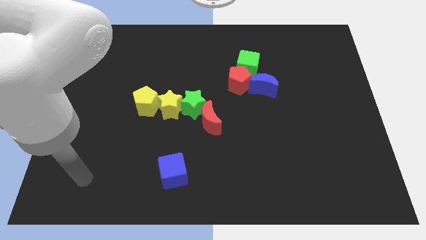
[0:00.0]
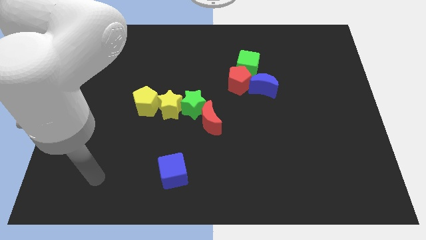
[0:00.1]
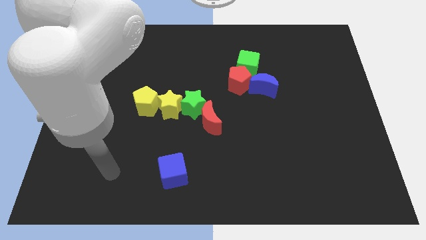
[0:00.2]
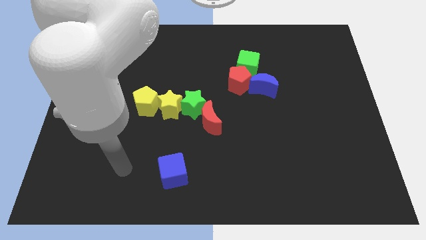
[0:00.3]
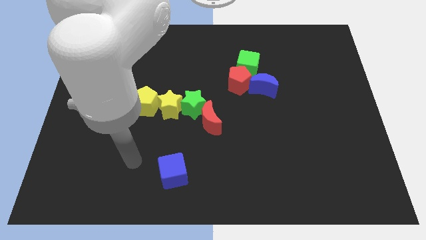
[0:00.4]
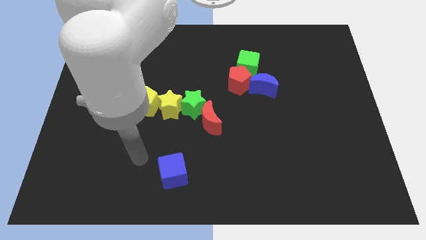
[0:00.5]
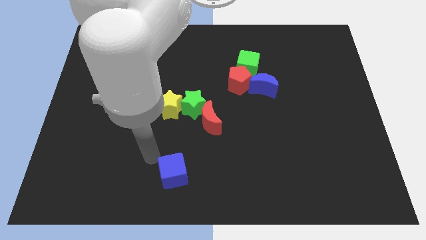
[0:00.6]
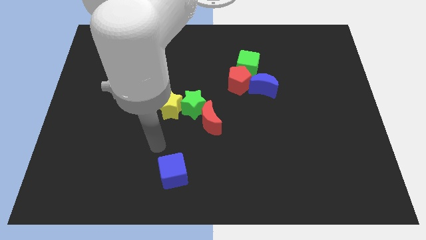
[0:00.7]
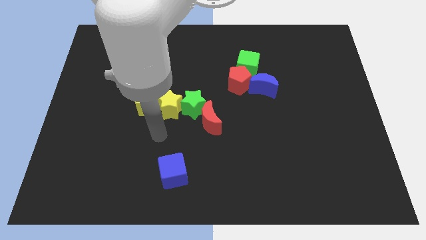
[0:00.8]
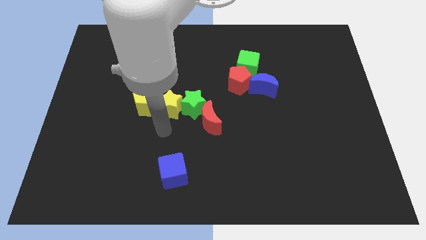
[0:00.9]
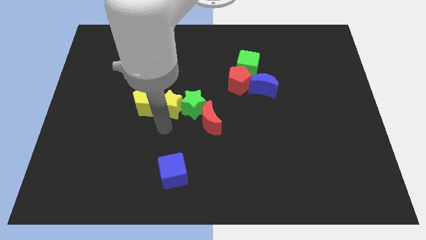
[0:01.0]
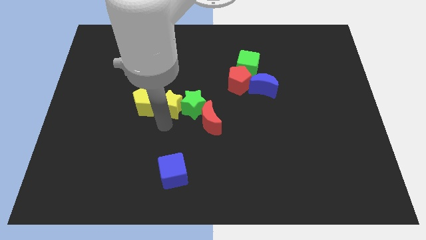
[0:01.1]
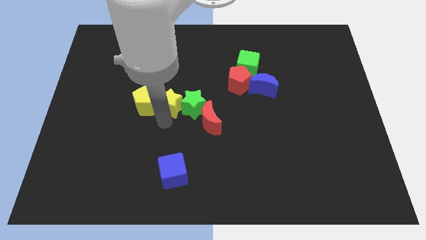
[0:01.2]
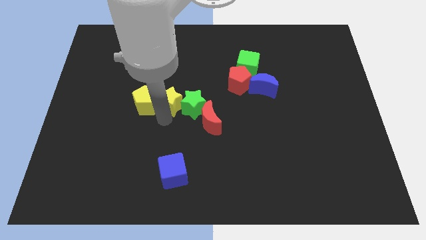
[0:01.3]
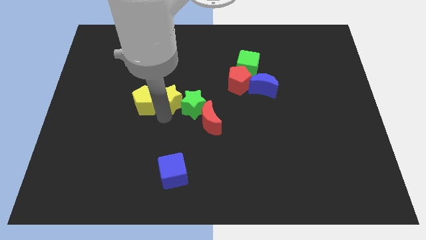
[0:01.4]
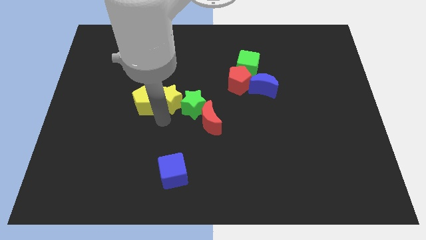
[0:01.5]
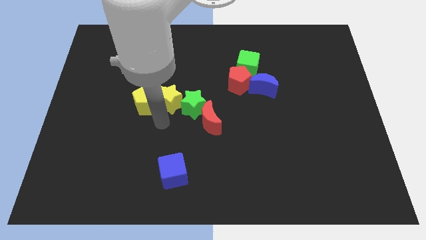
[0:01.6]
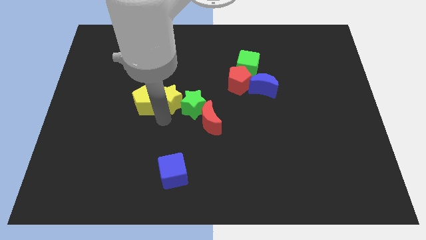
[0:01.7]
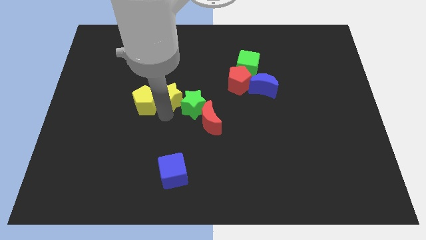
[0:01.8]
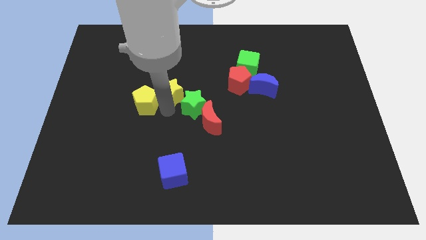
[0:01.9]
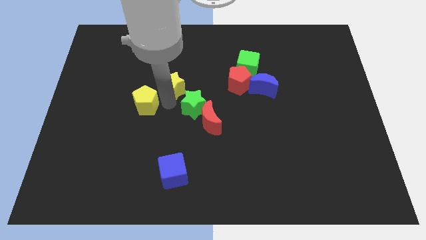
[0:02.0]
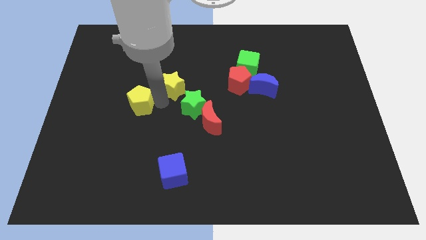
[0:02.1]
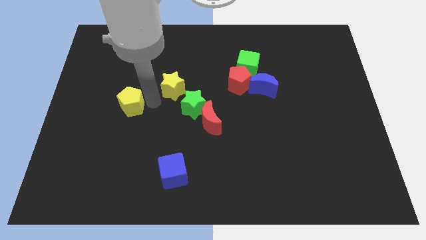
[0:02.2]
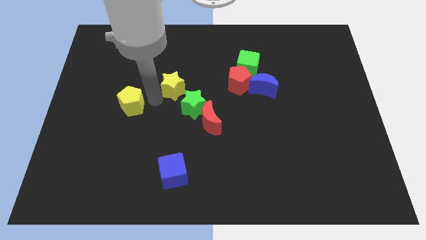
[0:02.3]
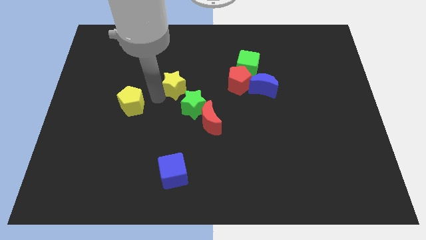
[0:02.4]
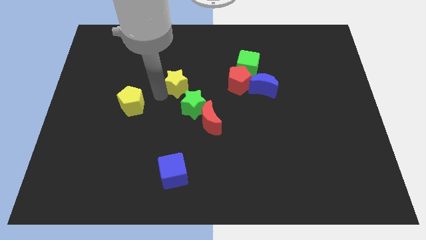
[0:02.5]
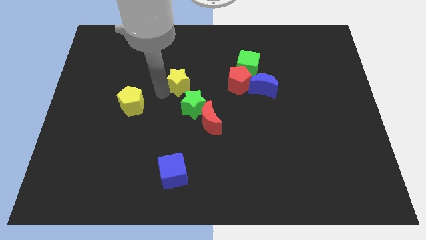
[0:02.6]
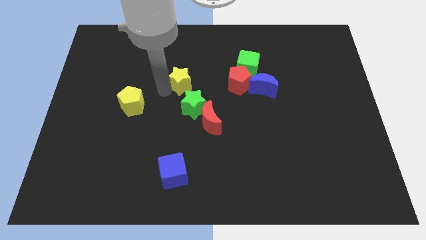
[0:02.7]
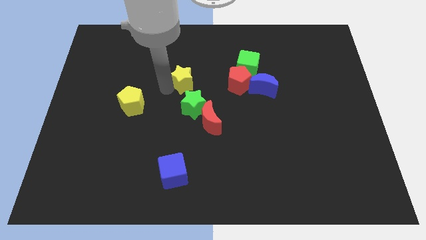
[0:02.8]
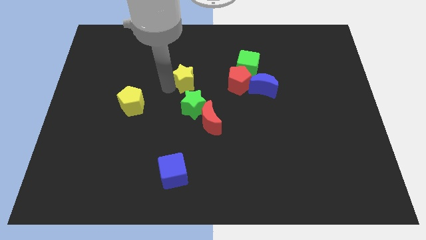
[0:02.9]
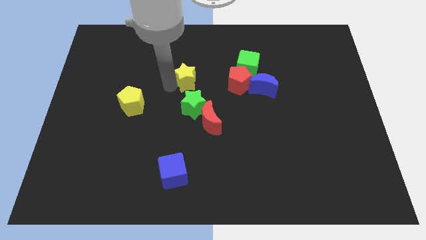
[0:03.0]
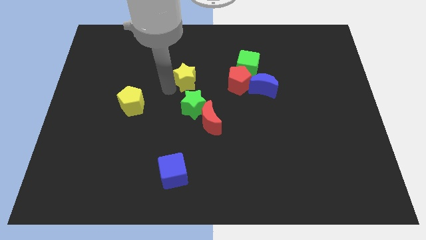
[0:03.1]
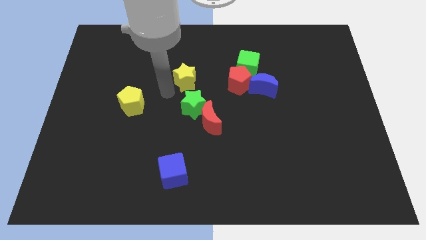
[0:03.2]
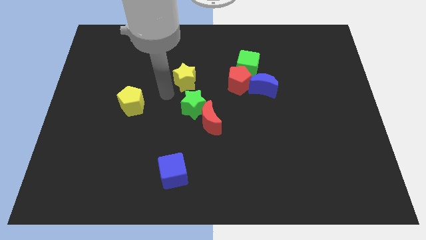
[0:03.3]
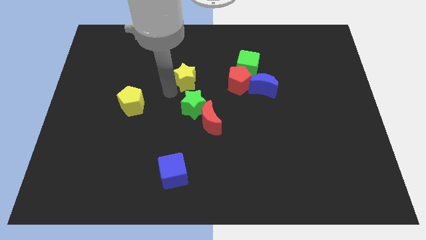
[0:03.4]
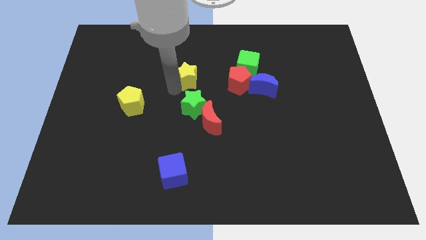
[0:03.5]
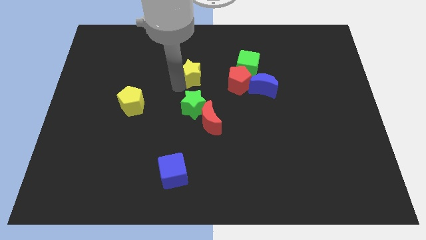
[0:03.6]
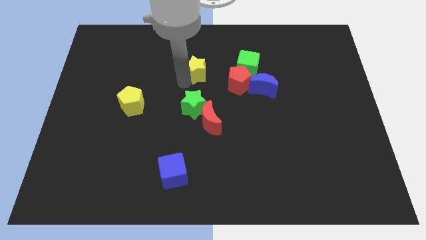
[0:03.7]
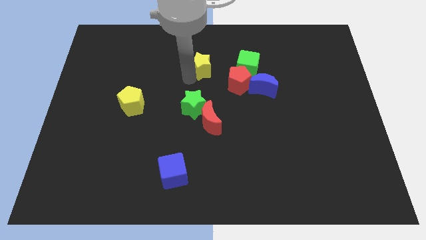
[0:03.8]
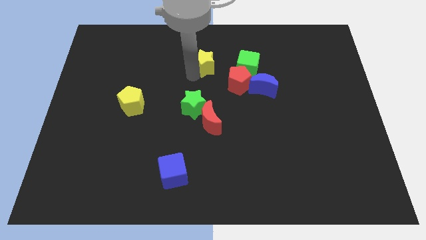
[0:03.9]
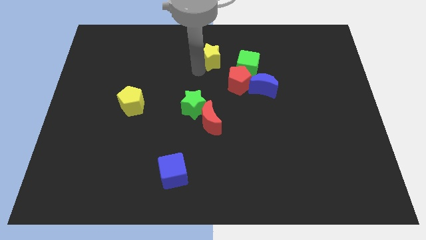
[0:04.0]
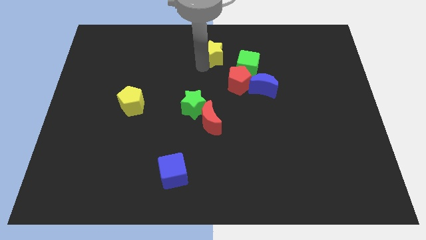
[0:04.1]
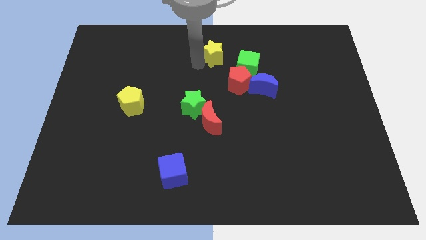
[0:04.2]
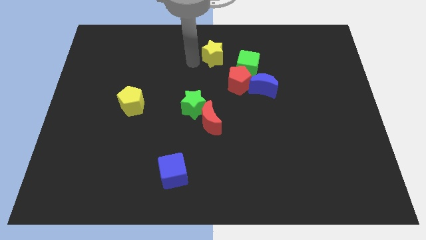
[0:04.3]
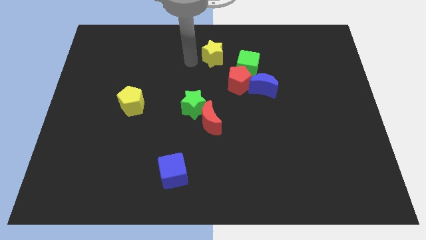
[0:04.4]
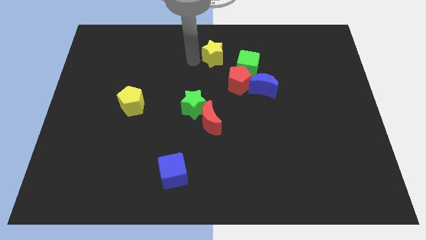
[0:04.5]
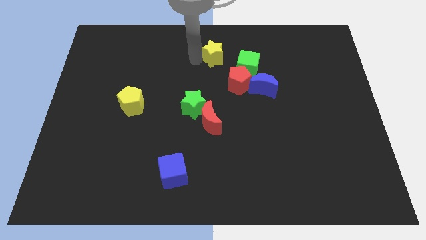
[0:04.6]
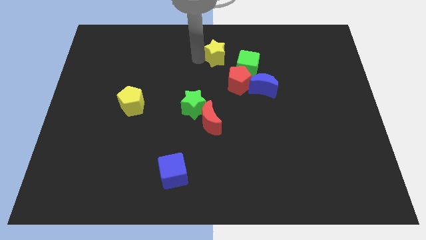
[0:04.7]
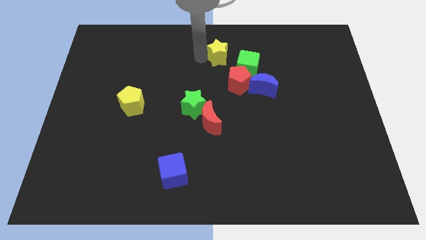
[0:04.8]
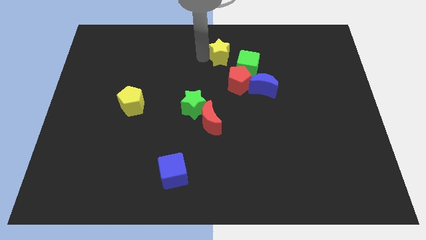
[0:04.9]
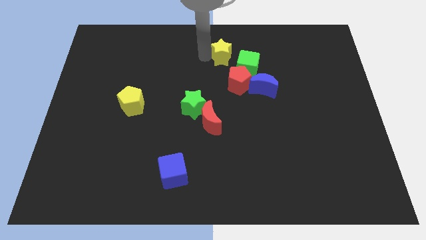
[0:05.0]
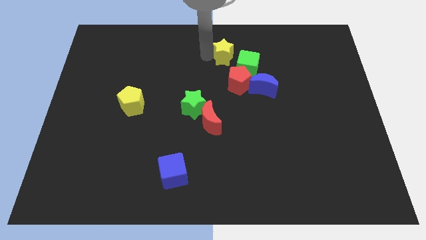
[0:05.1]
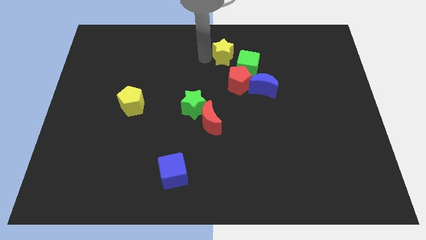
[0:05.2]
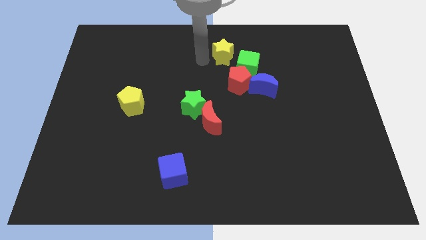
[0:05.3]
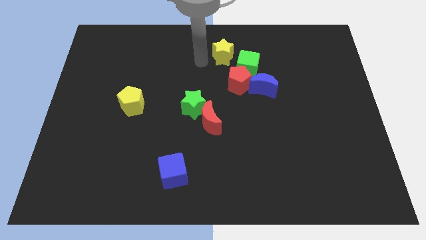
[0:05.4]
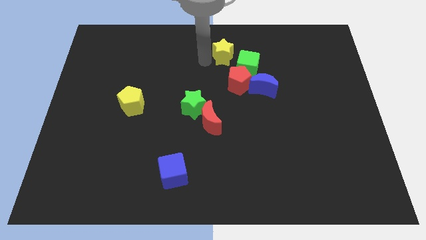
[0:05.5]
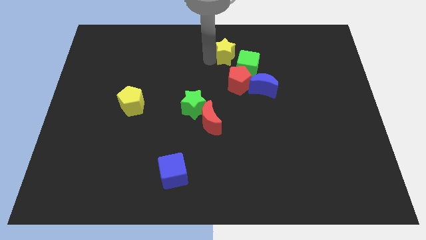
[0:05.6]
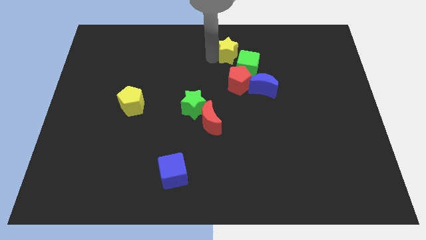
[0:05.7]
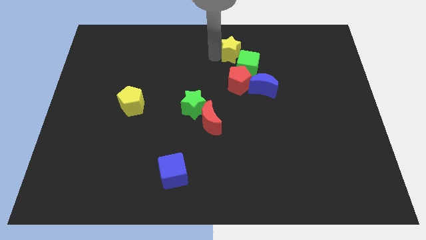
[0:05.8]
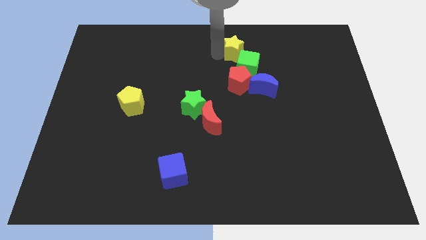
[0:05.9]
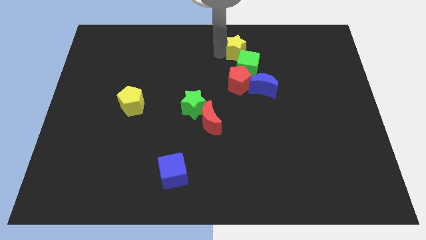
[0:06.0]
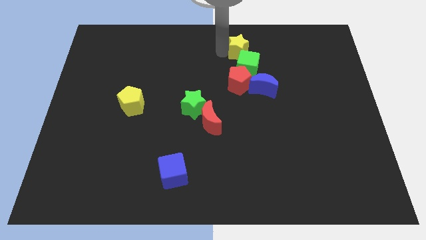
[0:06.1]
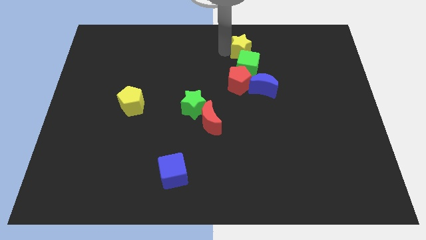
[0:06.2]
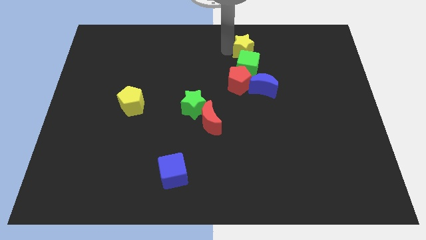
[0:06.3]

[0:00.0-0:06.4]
move the yellow star to the top side of the blue moon
